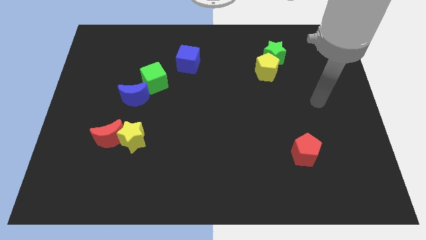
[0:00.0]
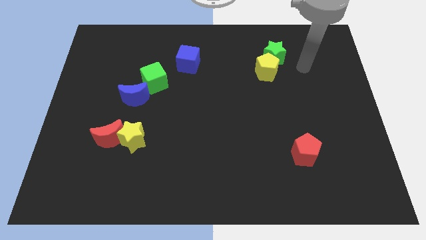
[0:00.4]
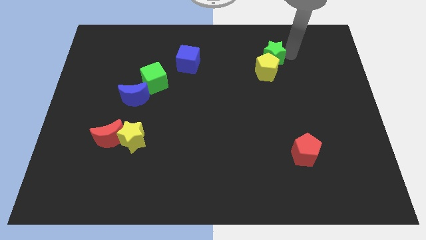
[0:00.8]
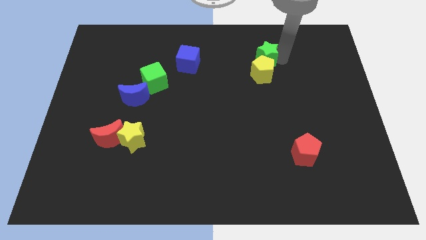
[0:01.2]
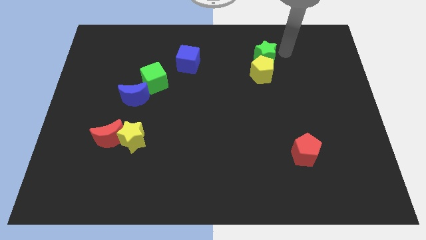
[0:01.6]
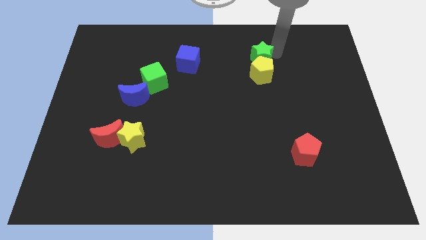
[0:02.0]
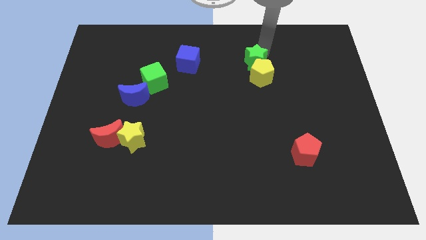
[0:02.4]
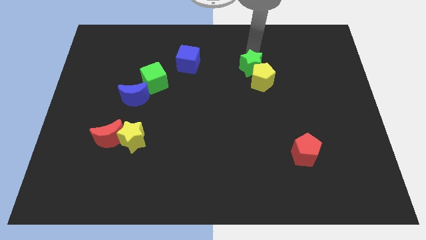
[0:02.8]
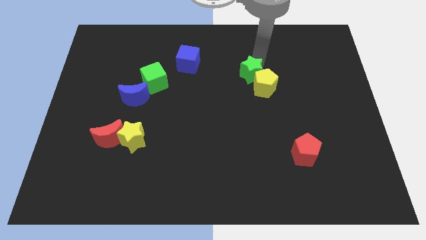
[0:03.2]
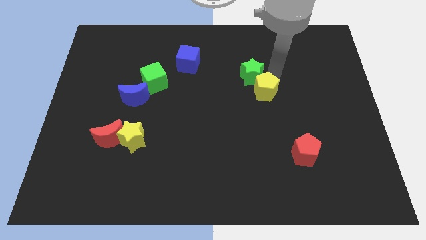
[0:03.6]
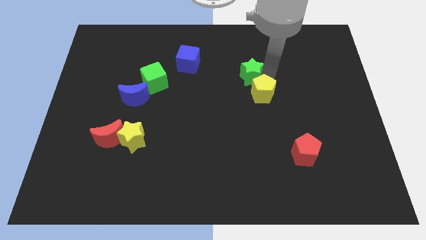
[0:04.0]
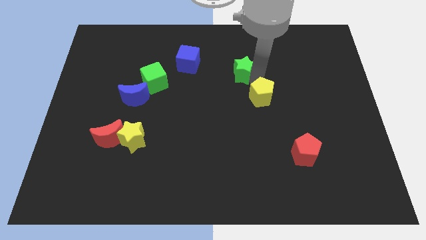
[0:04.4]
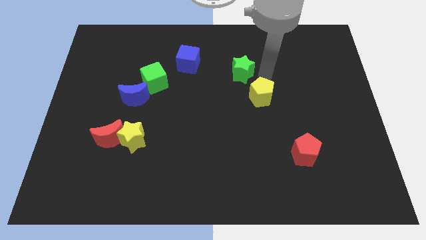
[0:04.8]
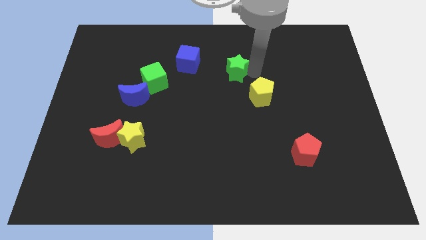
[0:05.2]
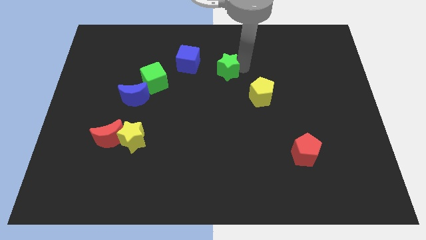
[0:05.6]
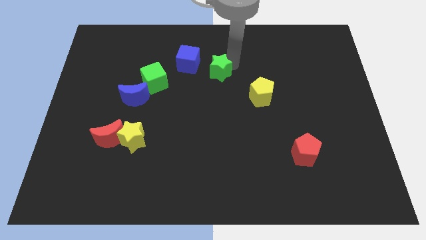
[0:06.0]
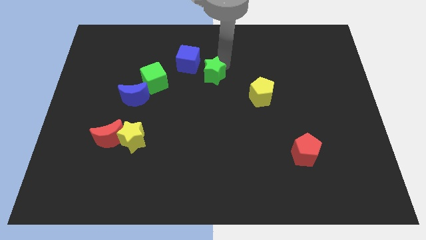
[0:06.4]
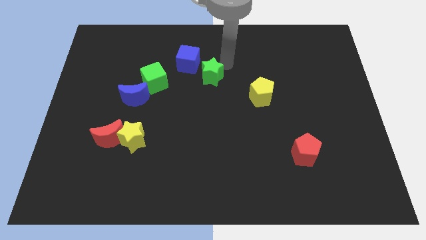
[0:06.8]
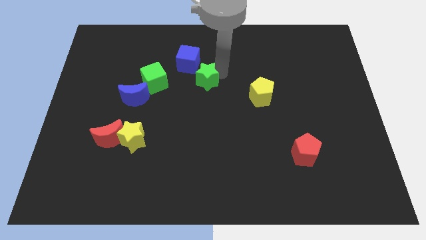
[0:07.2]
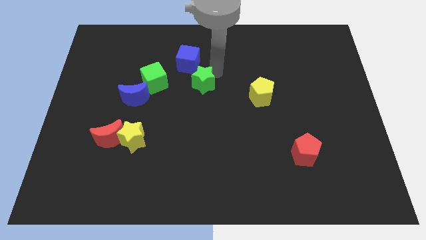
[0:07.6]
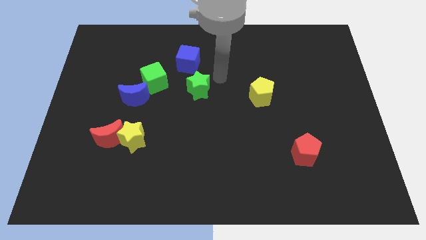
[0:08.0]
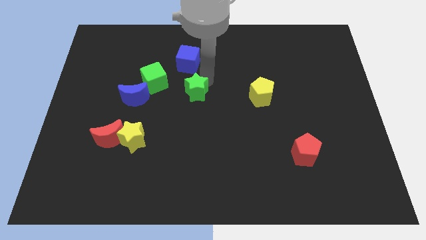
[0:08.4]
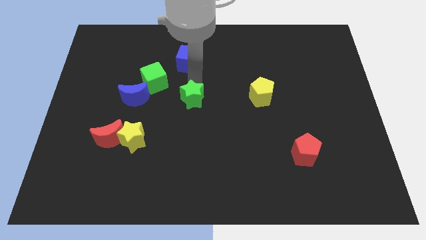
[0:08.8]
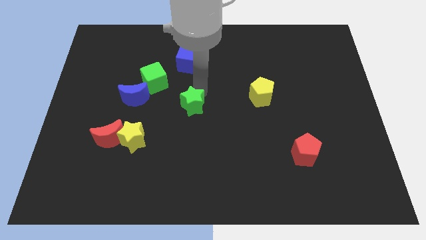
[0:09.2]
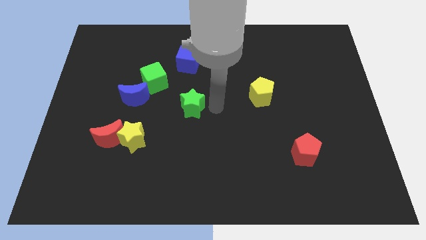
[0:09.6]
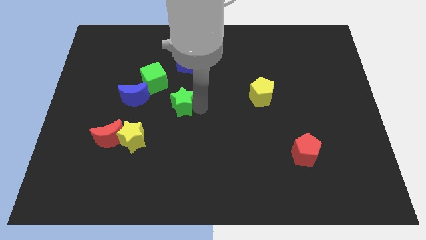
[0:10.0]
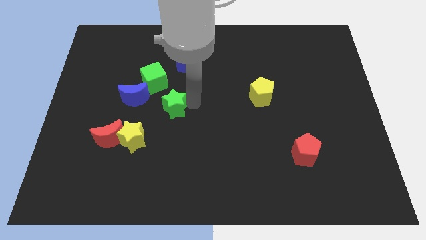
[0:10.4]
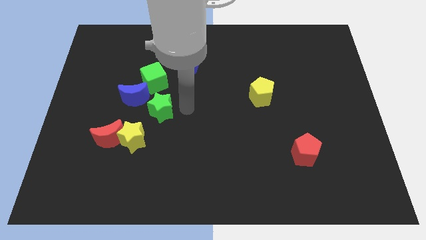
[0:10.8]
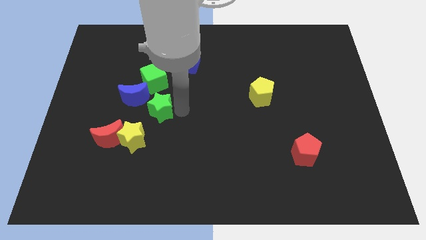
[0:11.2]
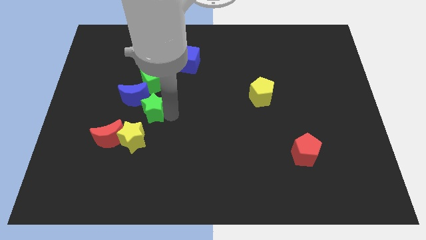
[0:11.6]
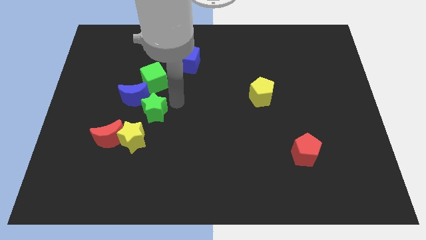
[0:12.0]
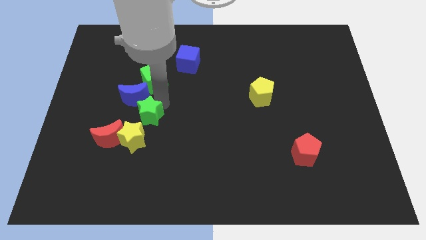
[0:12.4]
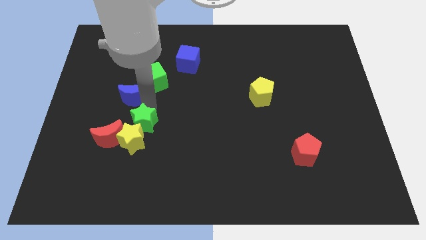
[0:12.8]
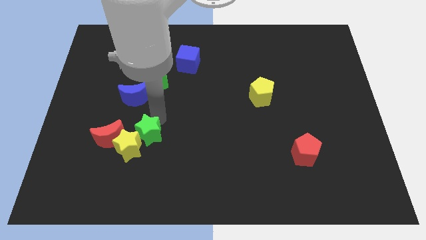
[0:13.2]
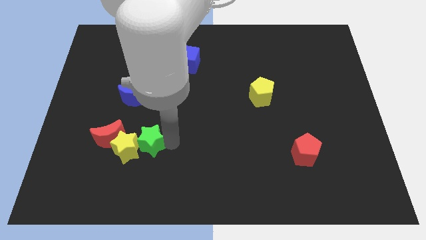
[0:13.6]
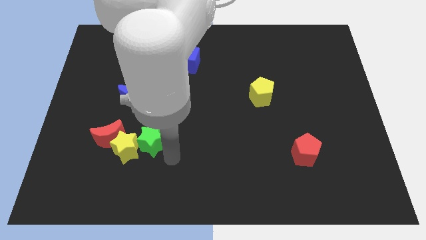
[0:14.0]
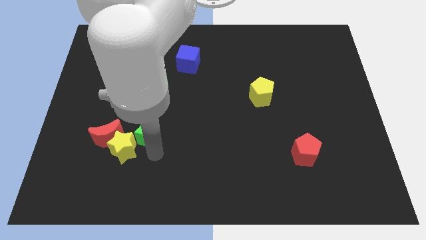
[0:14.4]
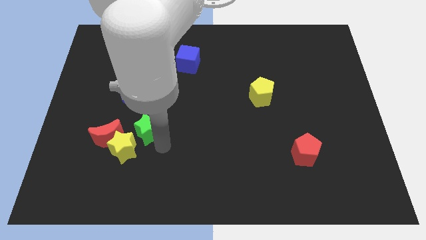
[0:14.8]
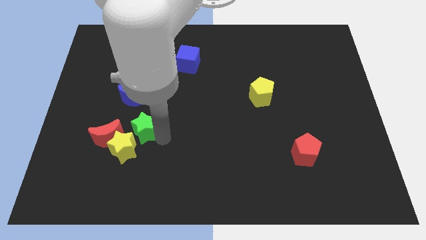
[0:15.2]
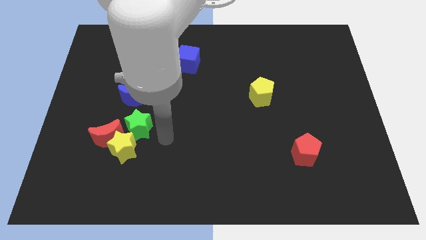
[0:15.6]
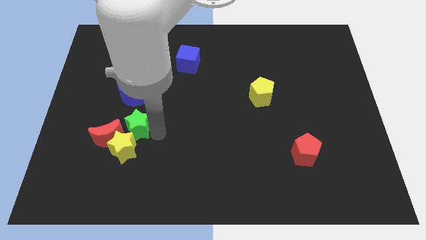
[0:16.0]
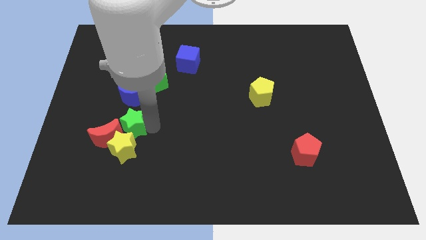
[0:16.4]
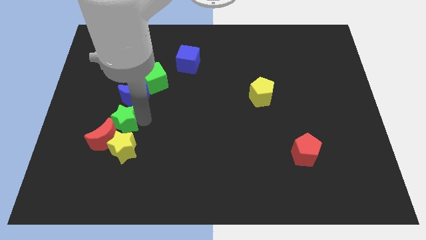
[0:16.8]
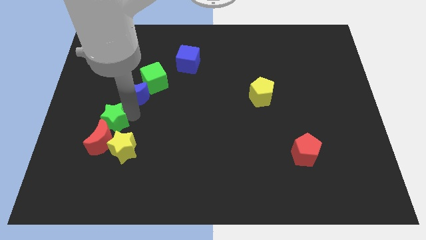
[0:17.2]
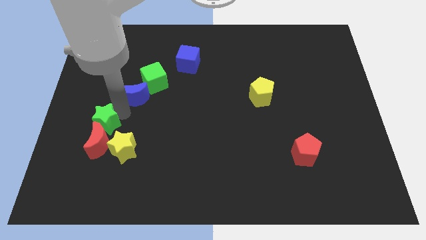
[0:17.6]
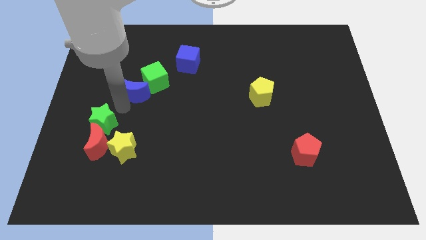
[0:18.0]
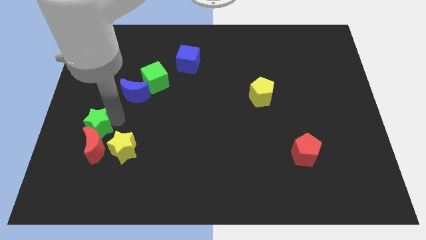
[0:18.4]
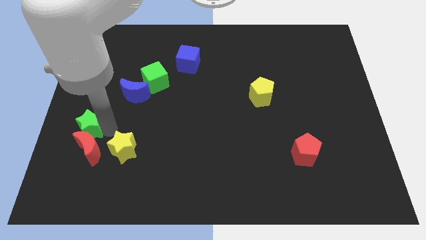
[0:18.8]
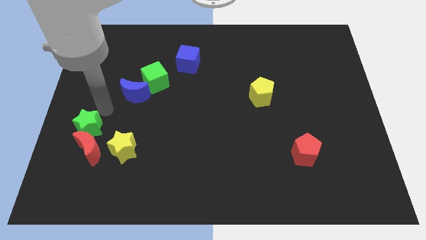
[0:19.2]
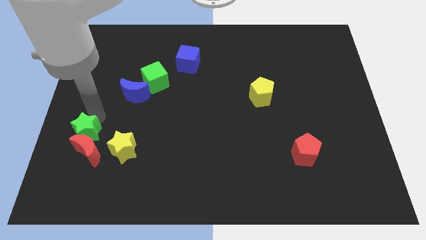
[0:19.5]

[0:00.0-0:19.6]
push the green star just left of the yellow star

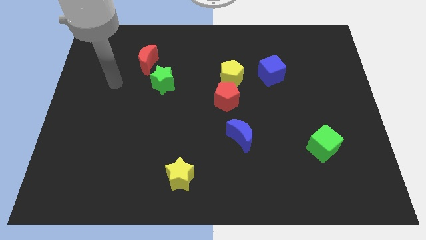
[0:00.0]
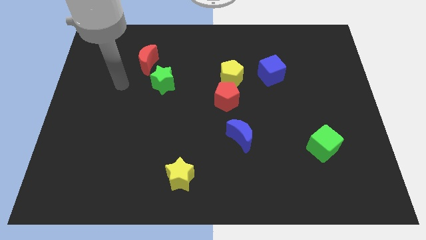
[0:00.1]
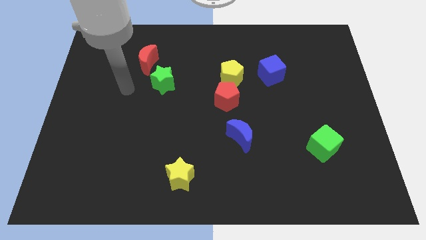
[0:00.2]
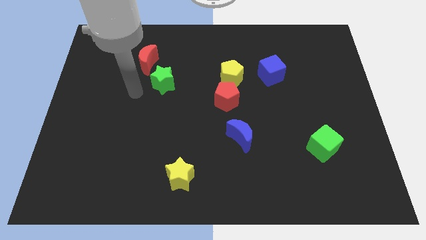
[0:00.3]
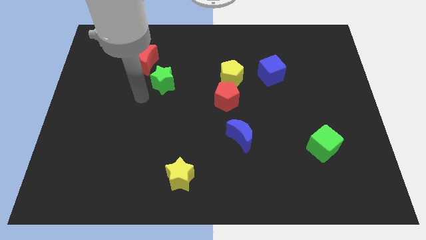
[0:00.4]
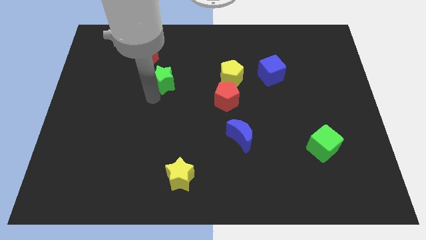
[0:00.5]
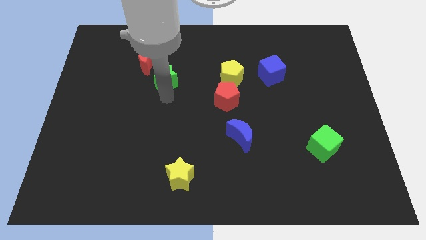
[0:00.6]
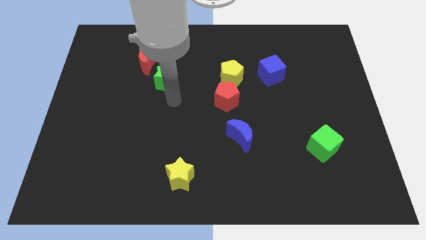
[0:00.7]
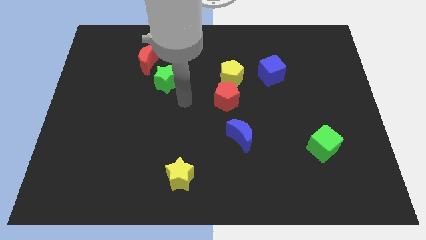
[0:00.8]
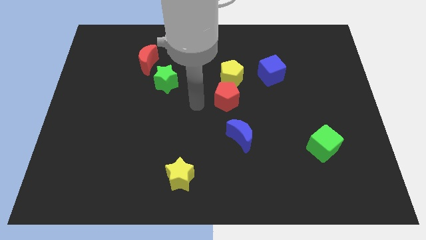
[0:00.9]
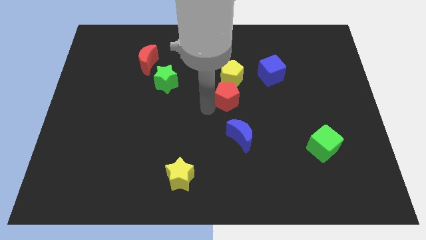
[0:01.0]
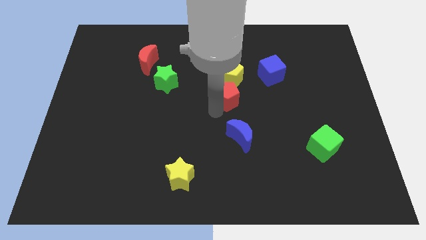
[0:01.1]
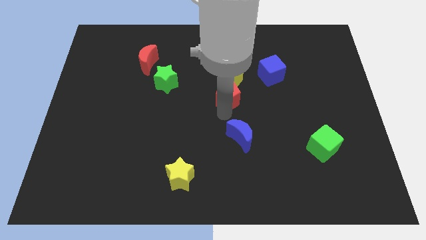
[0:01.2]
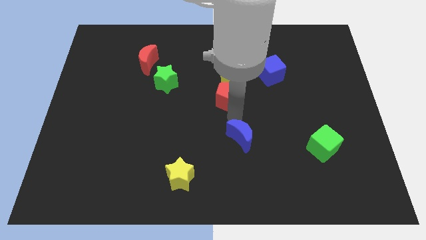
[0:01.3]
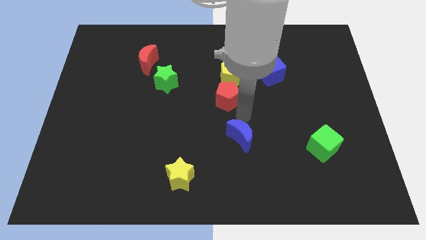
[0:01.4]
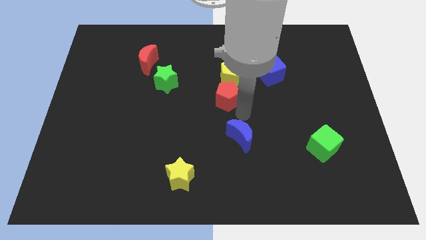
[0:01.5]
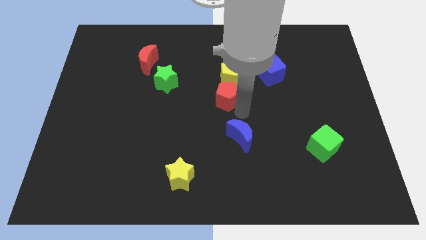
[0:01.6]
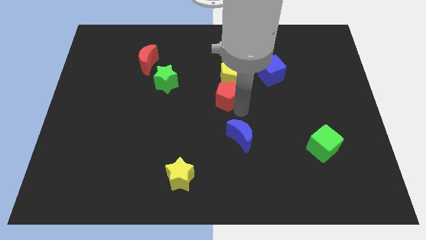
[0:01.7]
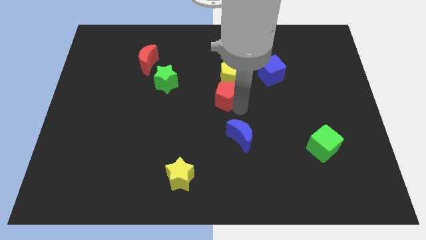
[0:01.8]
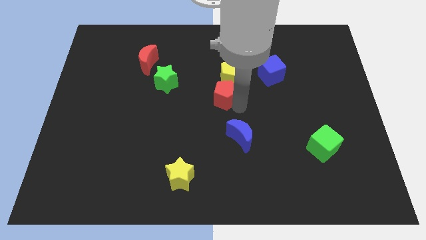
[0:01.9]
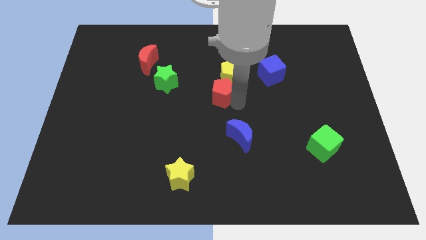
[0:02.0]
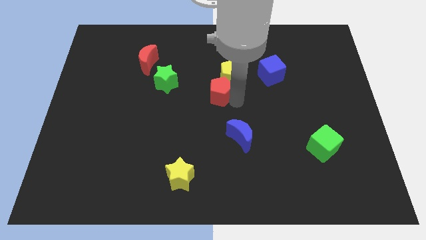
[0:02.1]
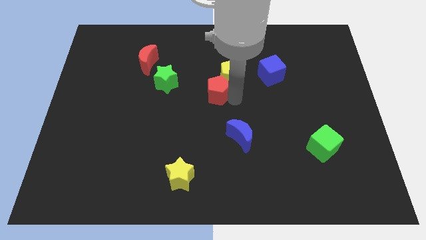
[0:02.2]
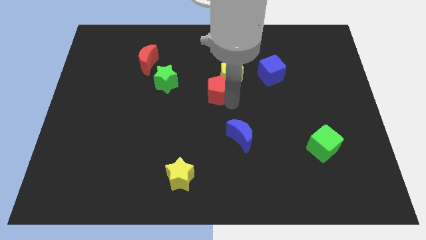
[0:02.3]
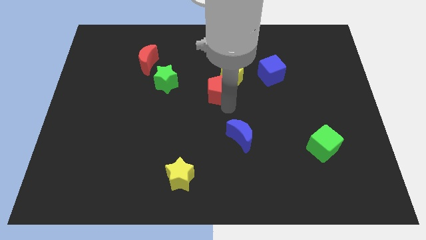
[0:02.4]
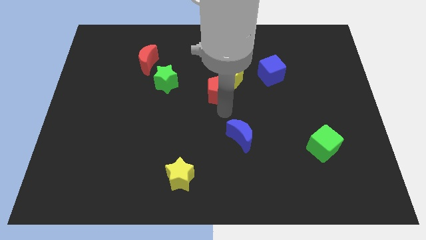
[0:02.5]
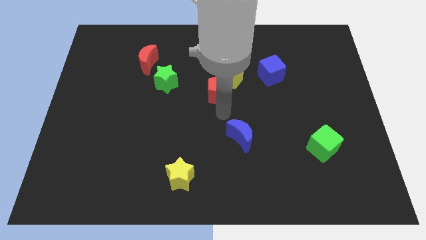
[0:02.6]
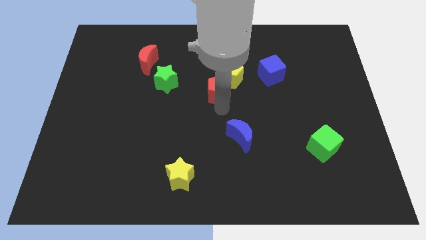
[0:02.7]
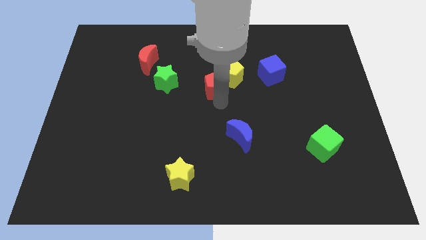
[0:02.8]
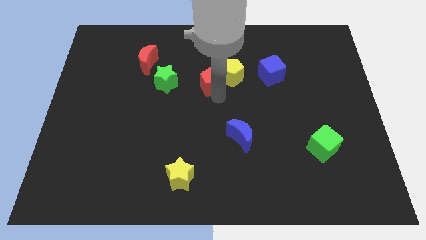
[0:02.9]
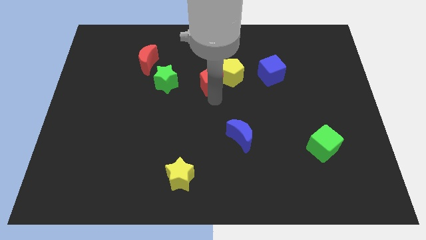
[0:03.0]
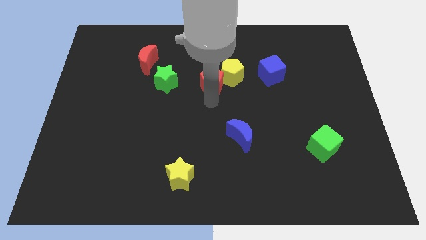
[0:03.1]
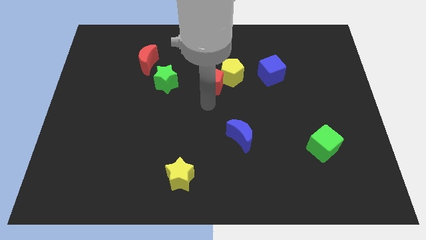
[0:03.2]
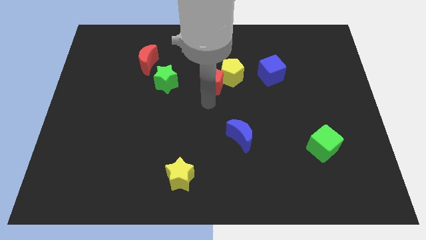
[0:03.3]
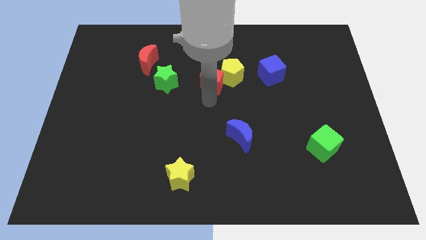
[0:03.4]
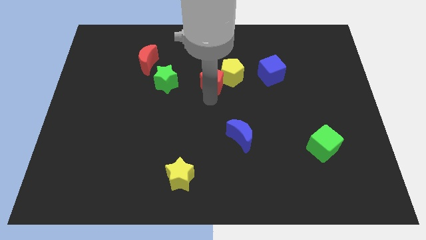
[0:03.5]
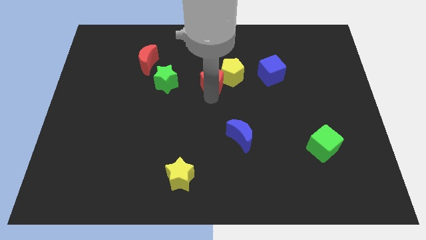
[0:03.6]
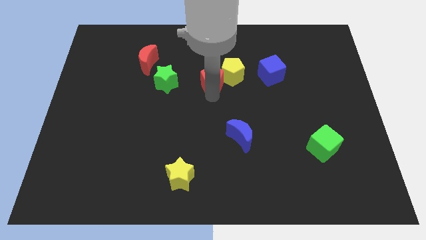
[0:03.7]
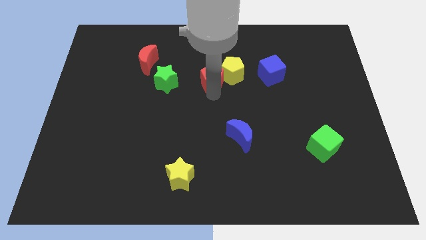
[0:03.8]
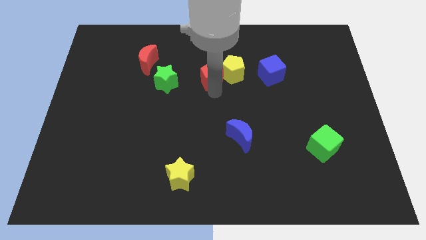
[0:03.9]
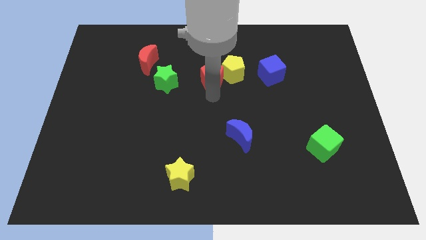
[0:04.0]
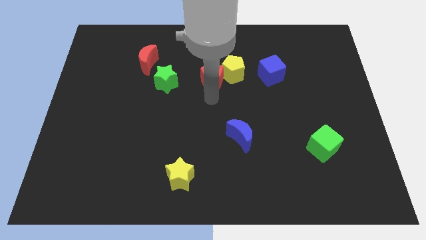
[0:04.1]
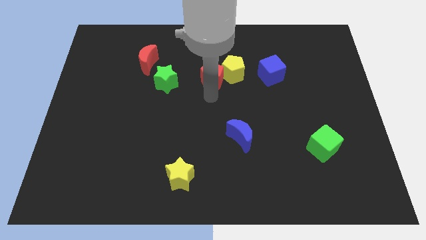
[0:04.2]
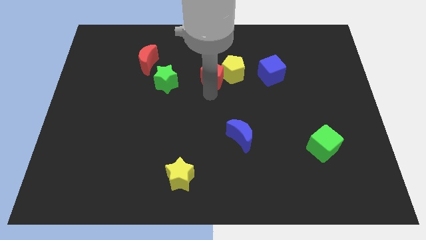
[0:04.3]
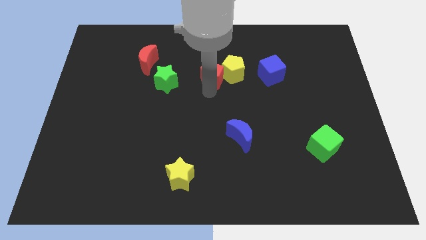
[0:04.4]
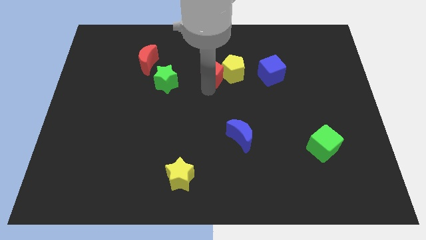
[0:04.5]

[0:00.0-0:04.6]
move the red pentagon to the top left side of the yellow pentagon
